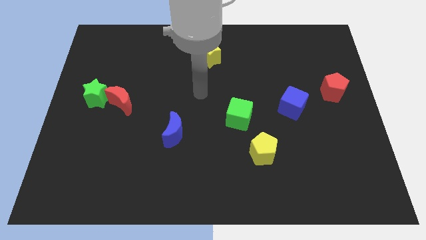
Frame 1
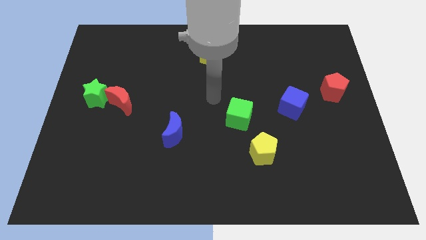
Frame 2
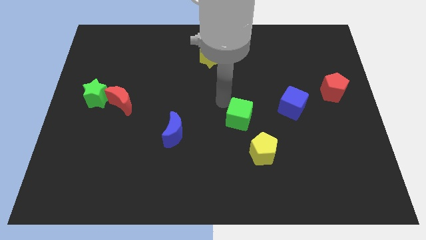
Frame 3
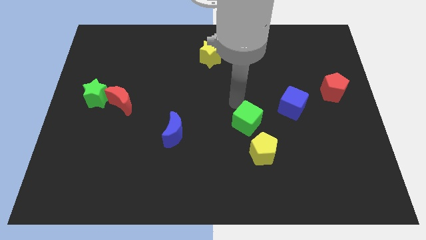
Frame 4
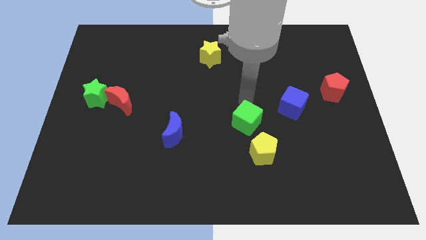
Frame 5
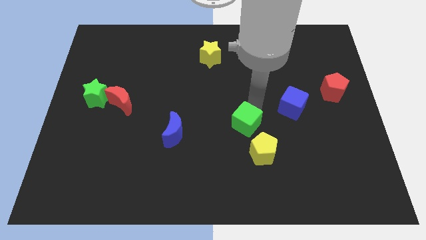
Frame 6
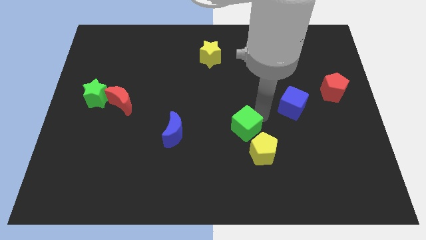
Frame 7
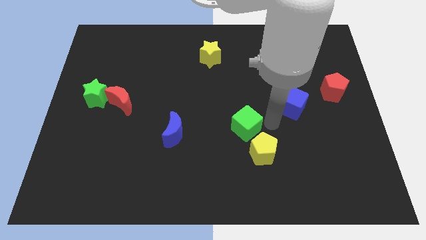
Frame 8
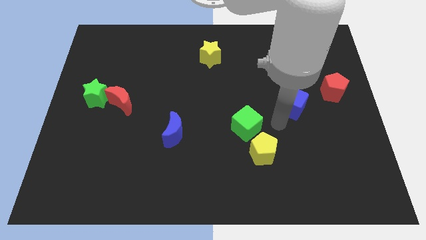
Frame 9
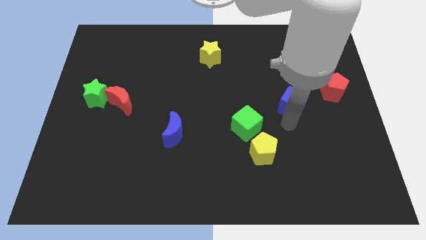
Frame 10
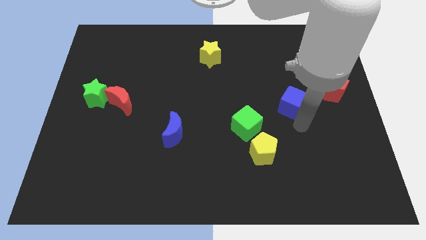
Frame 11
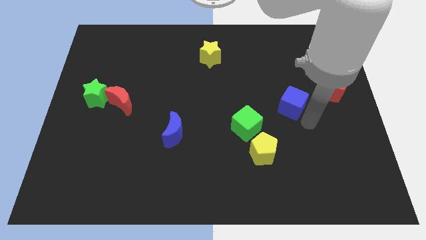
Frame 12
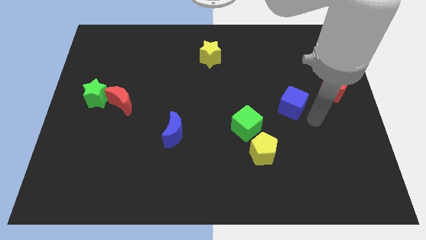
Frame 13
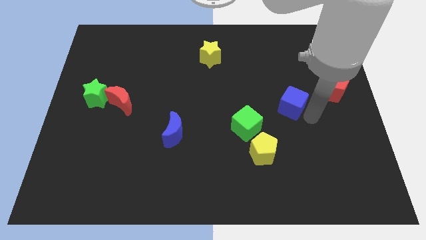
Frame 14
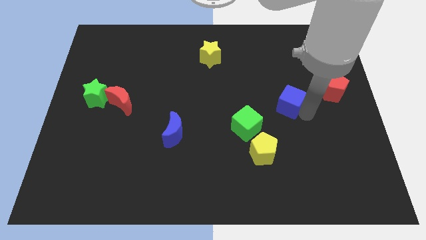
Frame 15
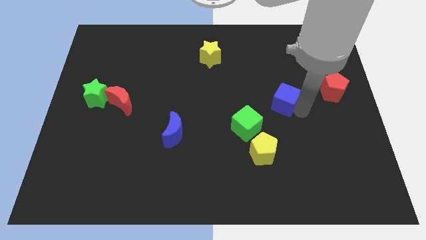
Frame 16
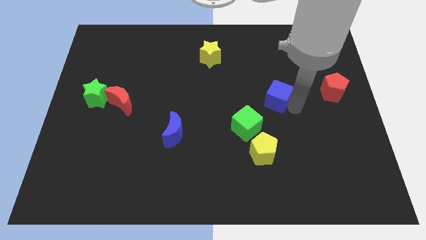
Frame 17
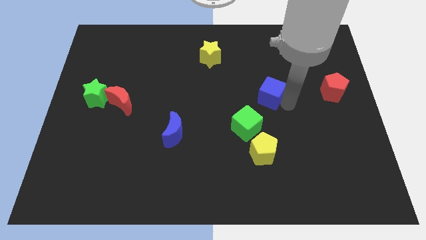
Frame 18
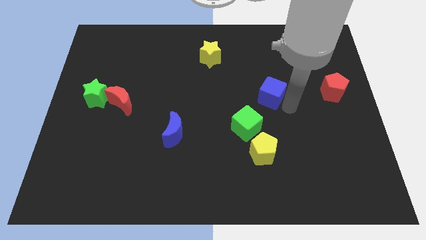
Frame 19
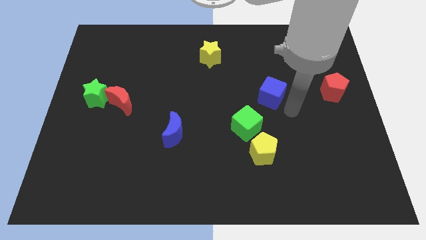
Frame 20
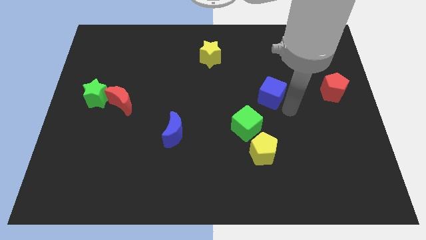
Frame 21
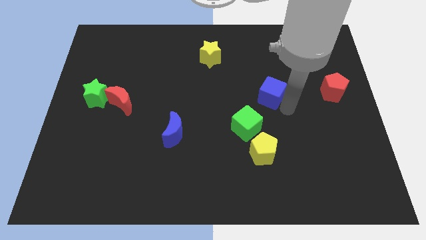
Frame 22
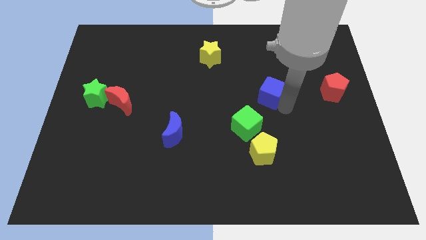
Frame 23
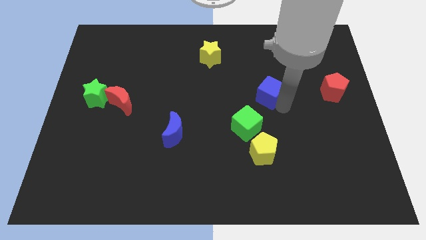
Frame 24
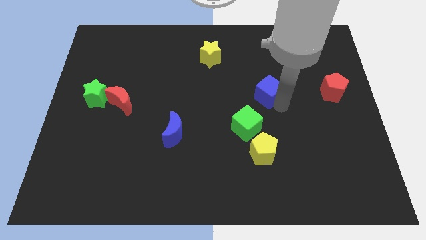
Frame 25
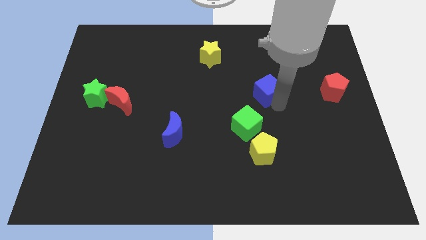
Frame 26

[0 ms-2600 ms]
push the blue cube somewhat upwards and then left

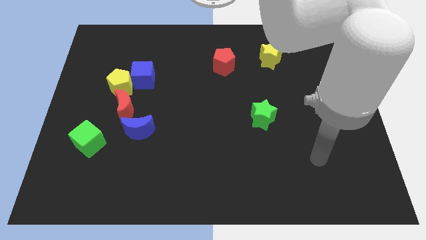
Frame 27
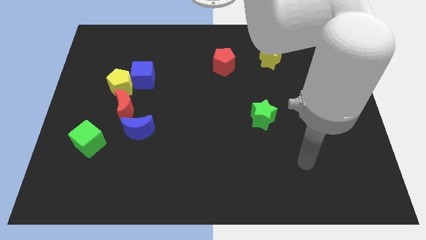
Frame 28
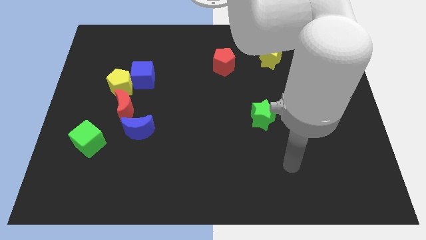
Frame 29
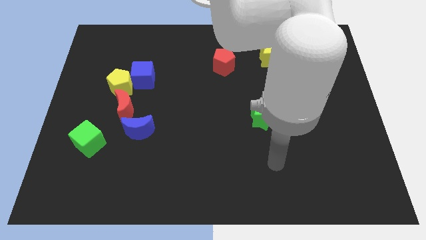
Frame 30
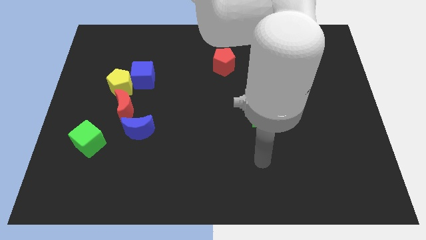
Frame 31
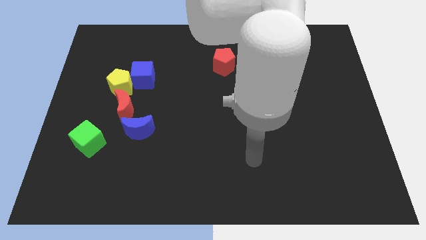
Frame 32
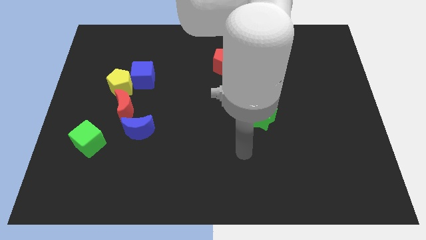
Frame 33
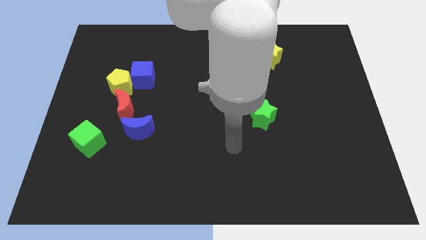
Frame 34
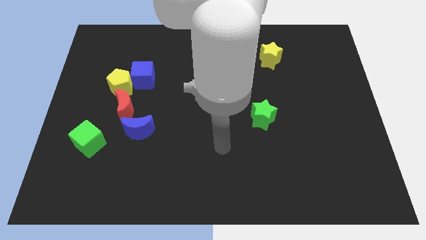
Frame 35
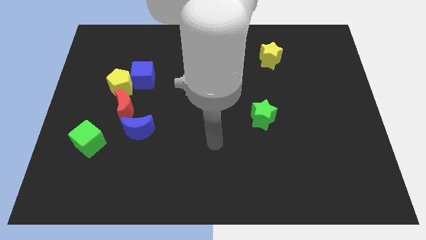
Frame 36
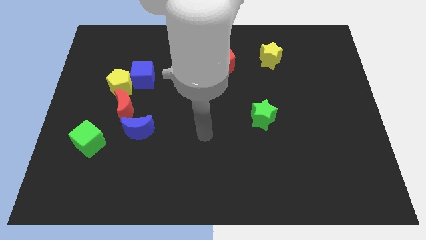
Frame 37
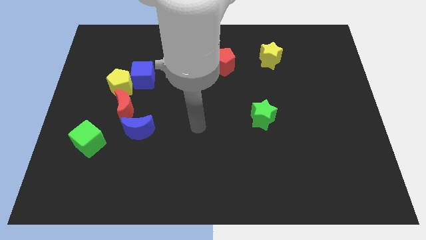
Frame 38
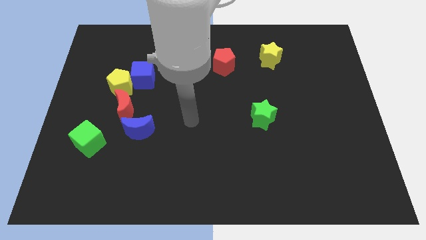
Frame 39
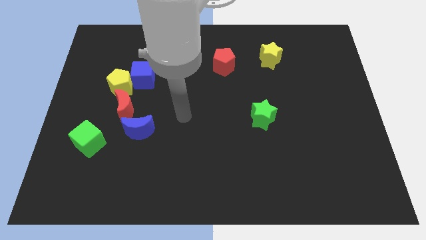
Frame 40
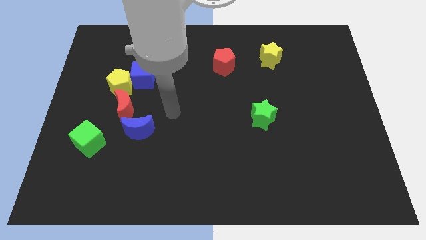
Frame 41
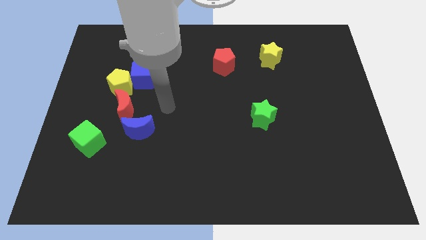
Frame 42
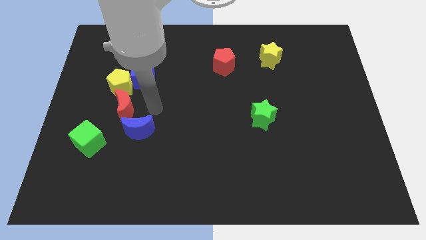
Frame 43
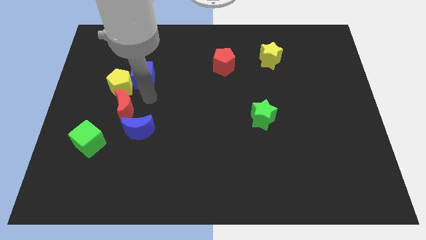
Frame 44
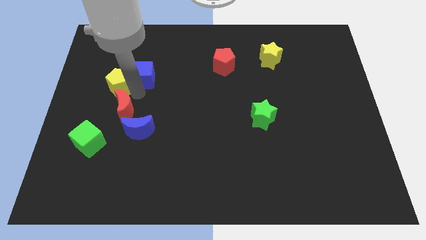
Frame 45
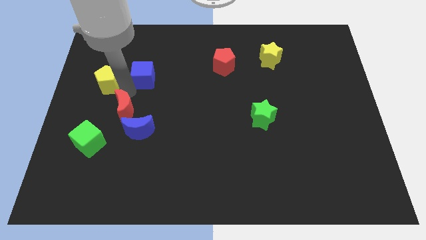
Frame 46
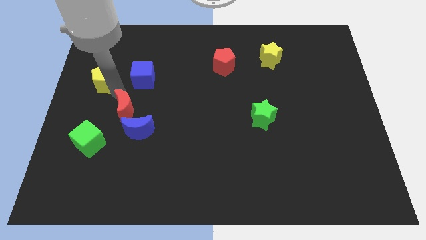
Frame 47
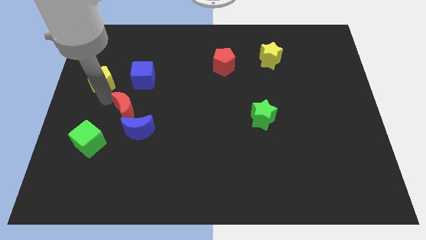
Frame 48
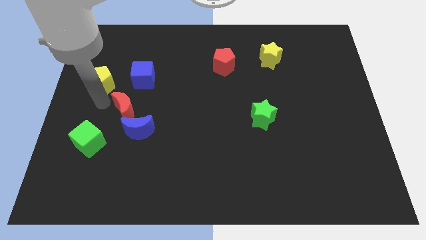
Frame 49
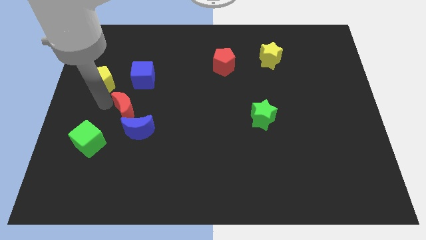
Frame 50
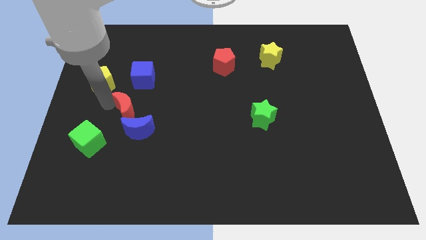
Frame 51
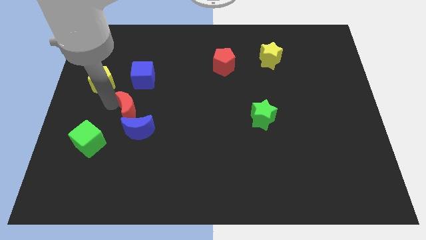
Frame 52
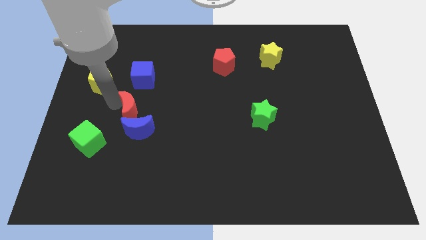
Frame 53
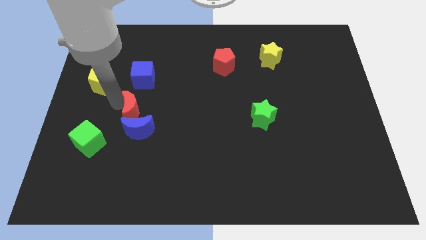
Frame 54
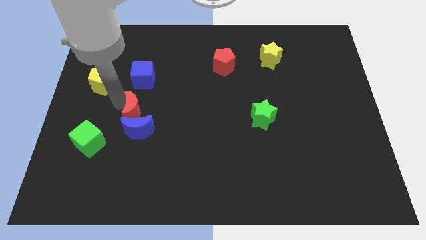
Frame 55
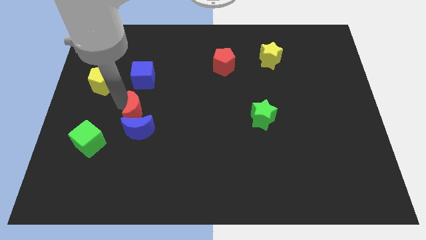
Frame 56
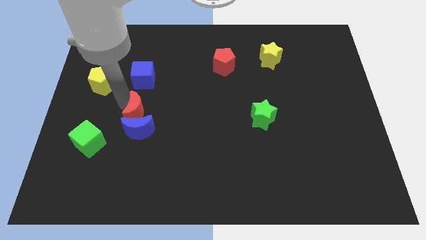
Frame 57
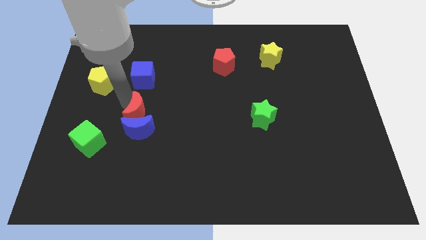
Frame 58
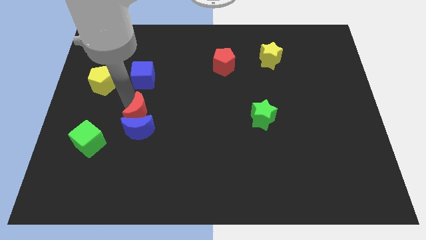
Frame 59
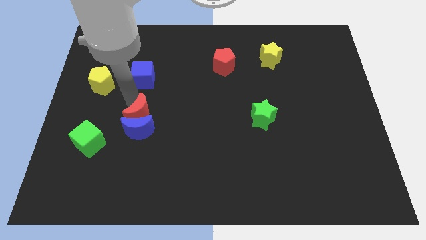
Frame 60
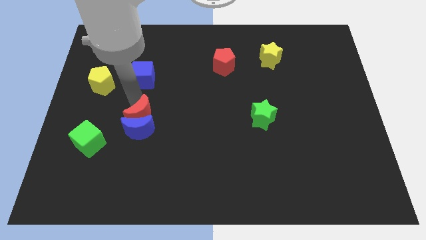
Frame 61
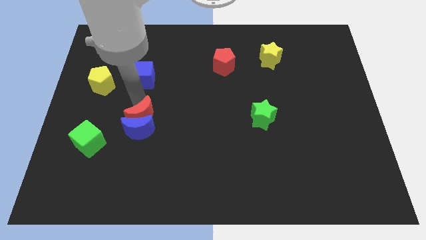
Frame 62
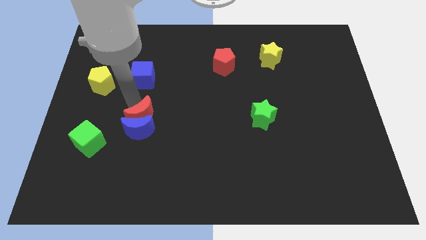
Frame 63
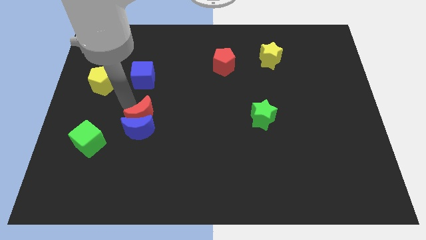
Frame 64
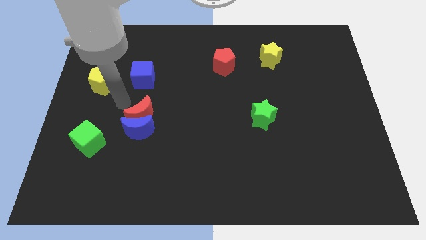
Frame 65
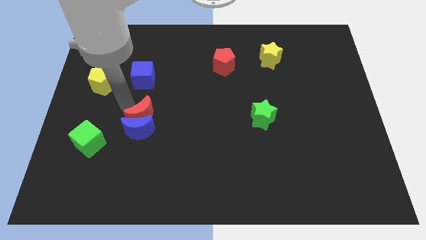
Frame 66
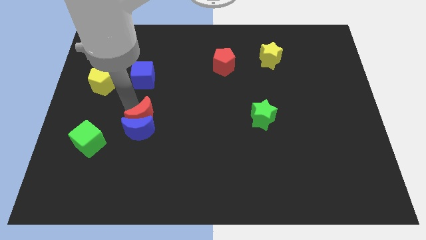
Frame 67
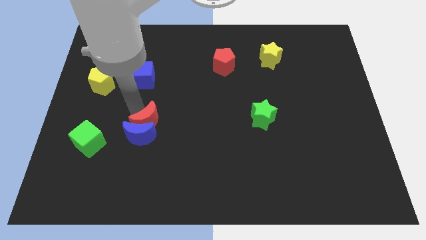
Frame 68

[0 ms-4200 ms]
slide the red moon diagonally downwards and right somewhat

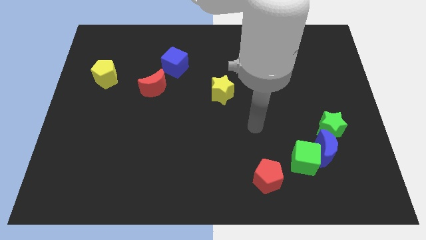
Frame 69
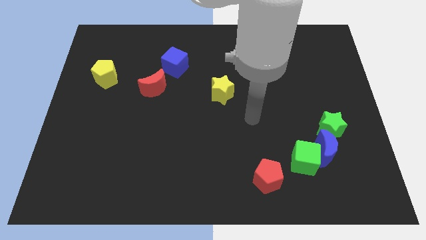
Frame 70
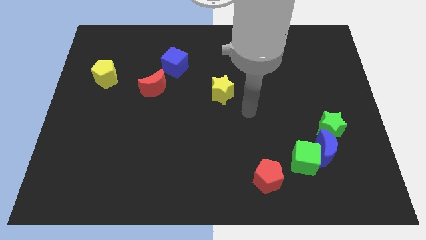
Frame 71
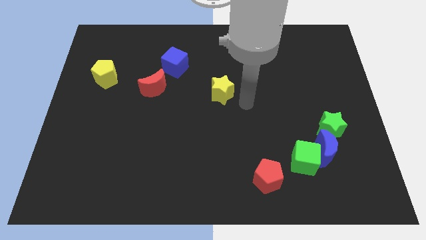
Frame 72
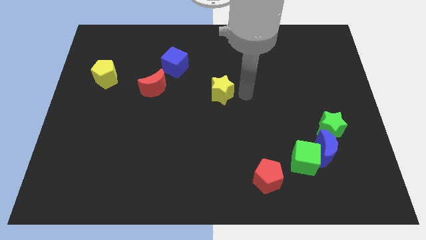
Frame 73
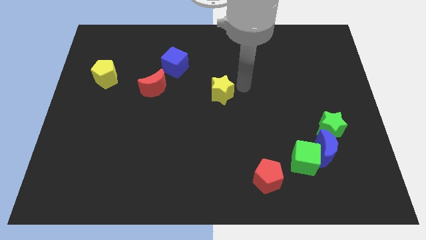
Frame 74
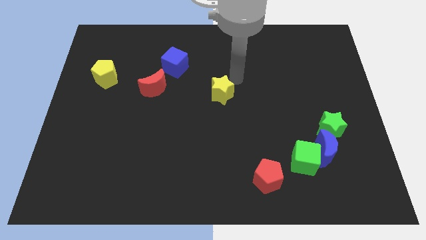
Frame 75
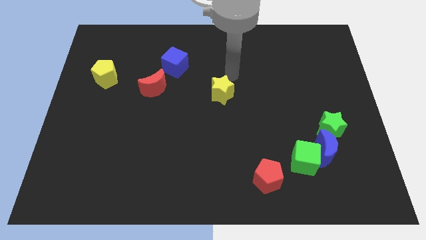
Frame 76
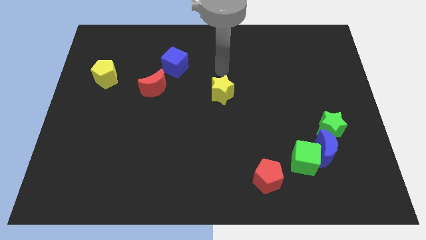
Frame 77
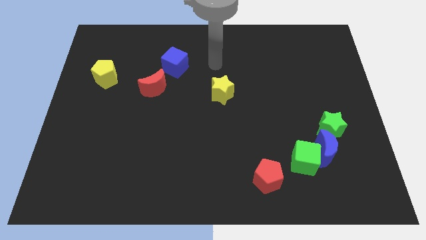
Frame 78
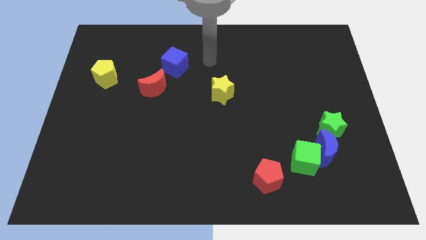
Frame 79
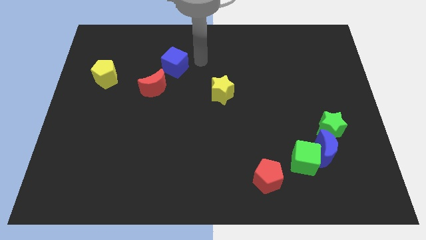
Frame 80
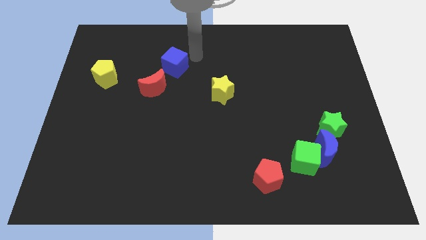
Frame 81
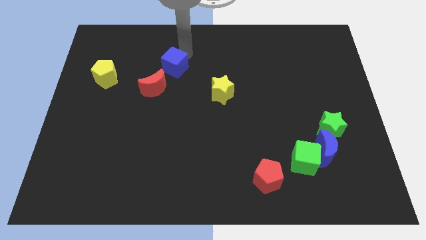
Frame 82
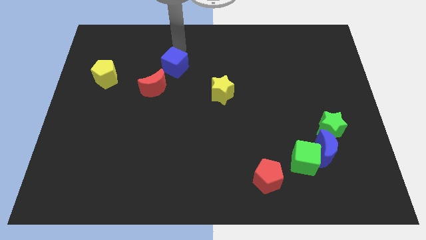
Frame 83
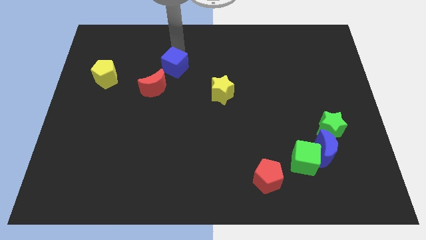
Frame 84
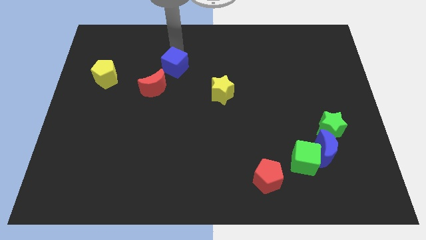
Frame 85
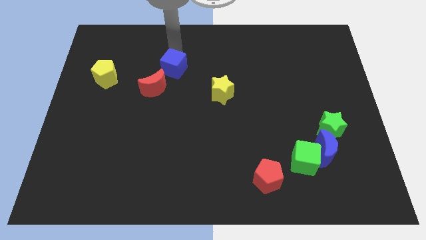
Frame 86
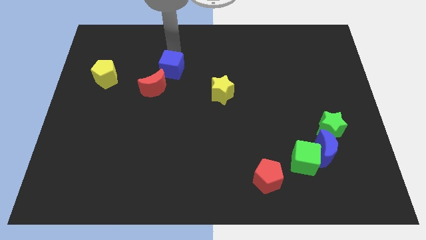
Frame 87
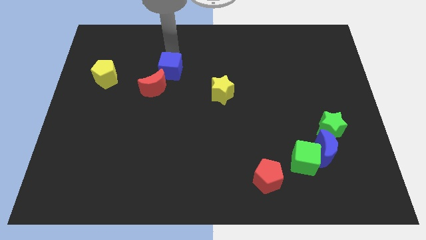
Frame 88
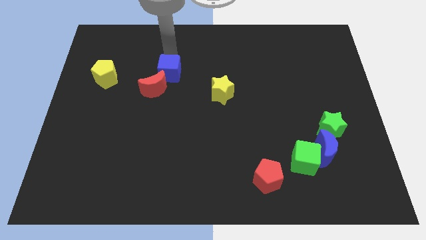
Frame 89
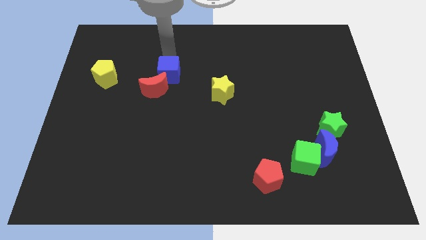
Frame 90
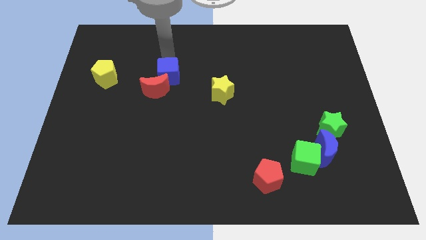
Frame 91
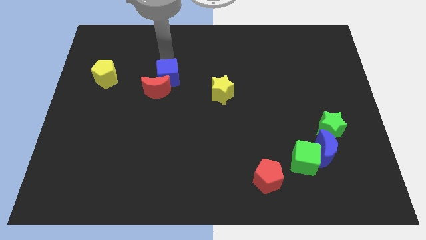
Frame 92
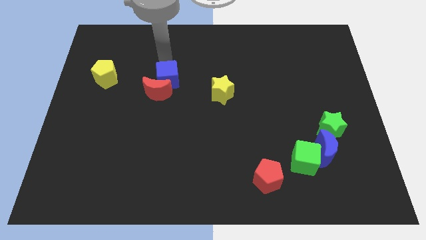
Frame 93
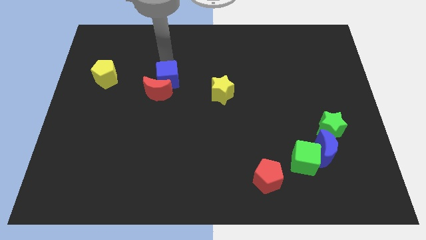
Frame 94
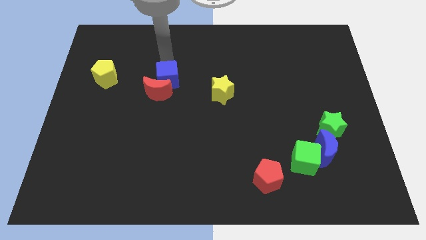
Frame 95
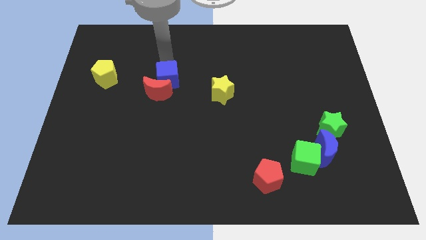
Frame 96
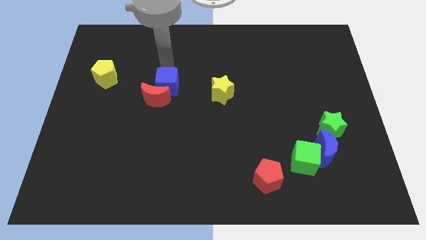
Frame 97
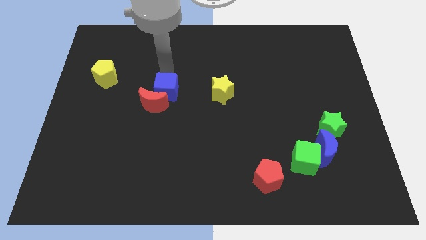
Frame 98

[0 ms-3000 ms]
move the blue cube a little bit down
